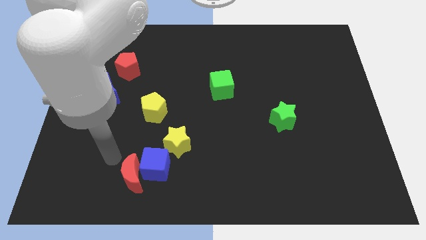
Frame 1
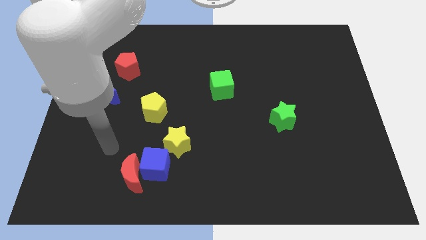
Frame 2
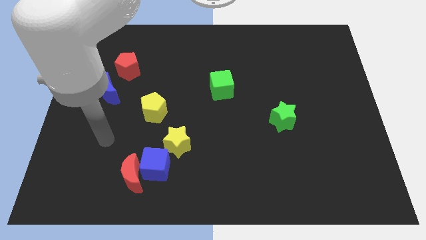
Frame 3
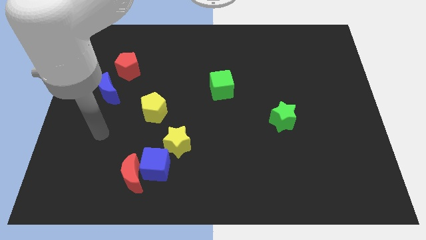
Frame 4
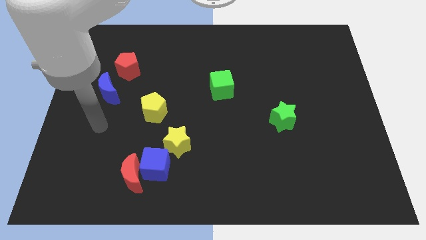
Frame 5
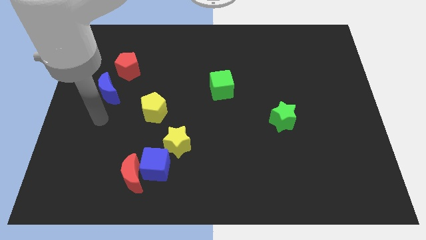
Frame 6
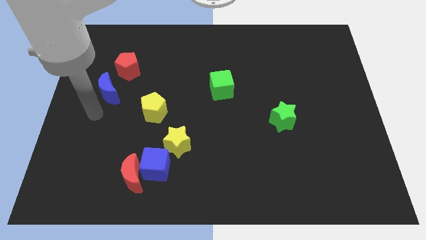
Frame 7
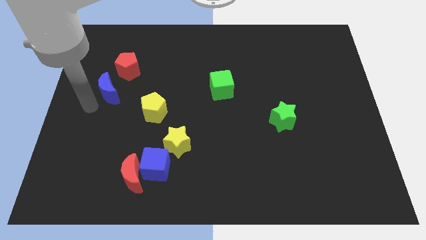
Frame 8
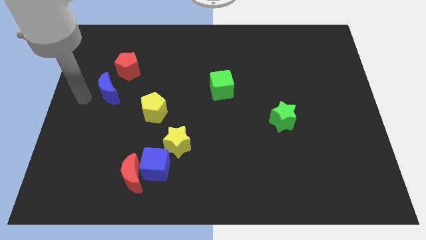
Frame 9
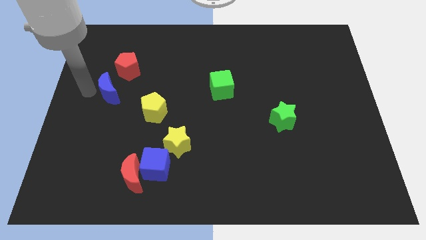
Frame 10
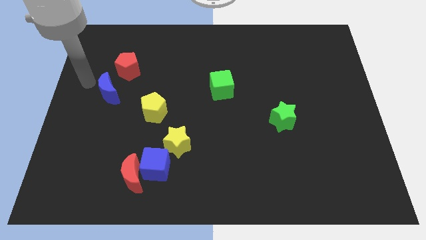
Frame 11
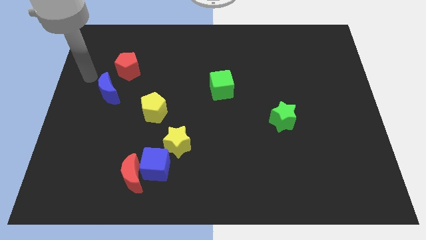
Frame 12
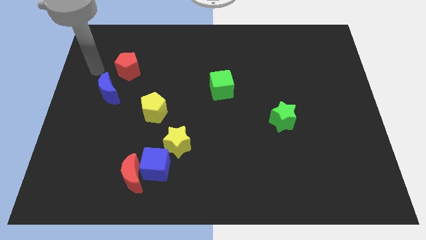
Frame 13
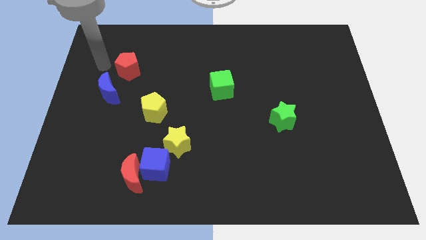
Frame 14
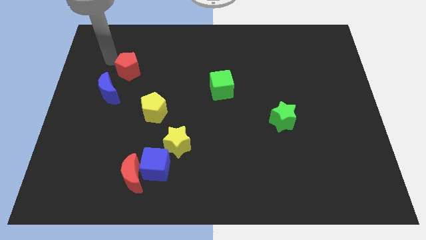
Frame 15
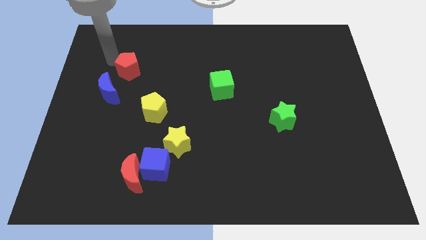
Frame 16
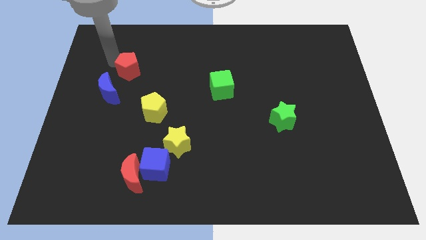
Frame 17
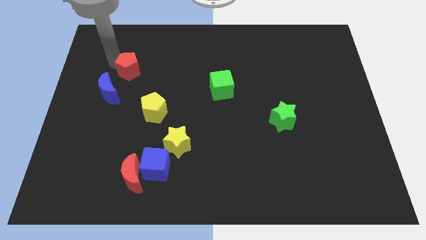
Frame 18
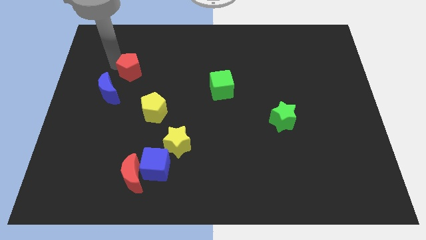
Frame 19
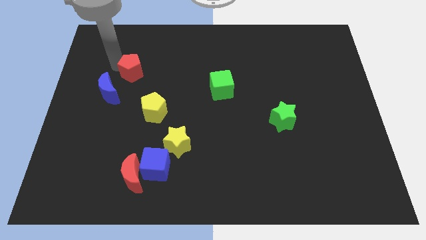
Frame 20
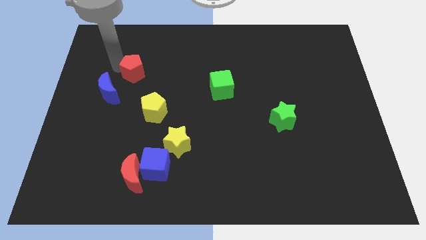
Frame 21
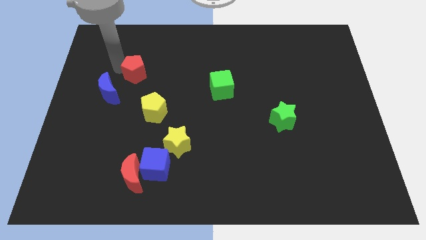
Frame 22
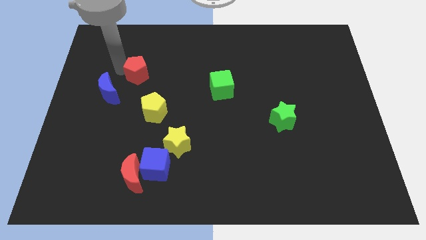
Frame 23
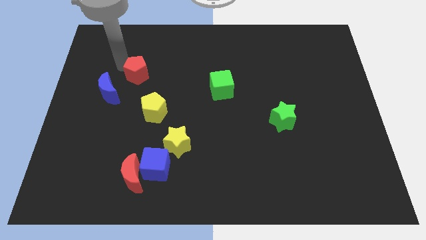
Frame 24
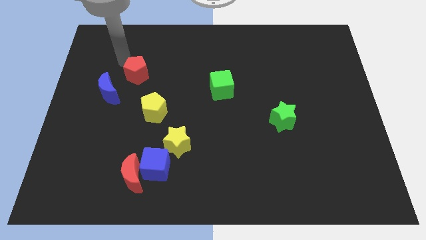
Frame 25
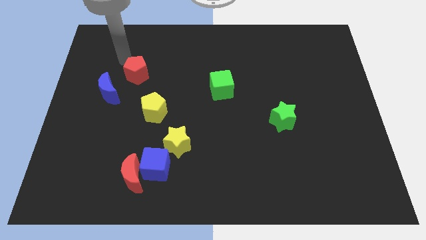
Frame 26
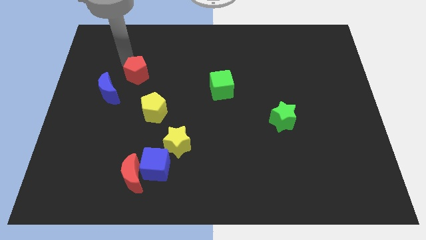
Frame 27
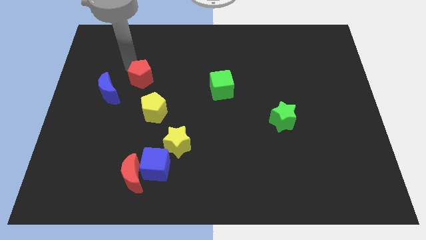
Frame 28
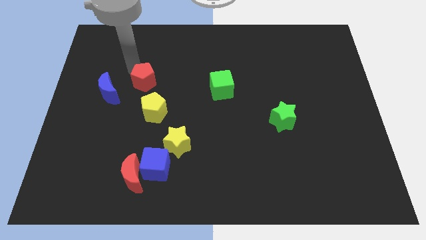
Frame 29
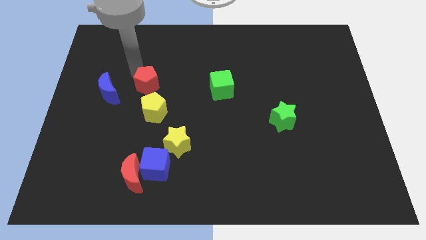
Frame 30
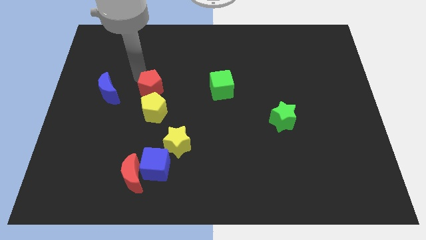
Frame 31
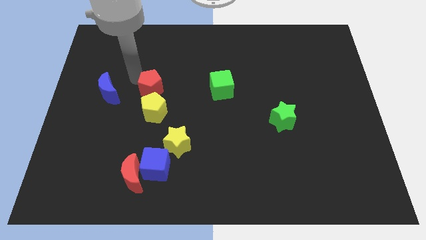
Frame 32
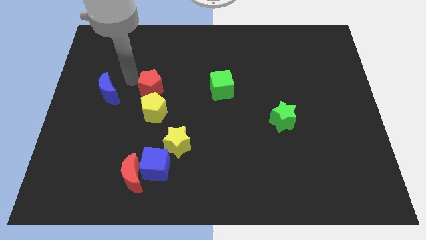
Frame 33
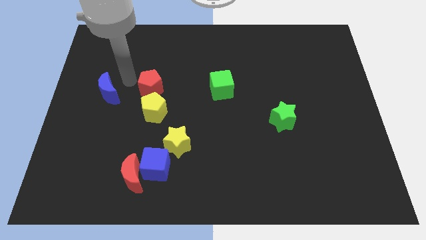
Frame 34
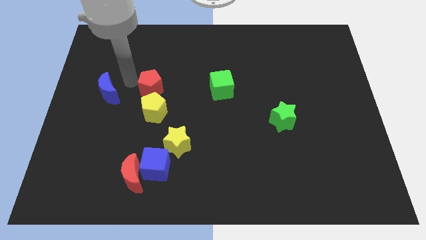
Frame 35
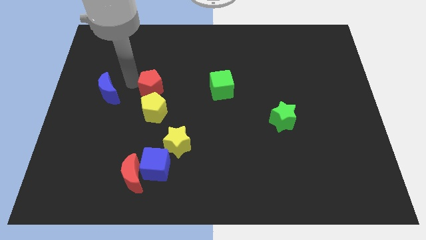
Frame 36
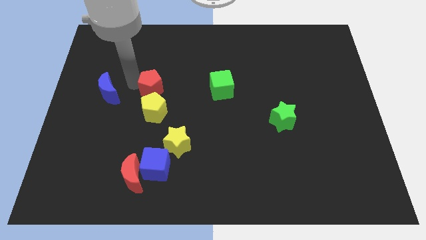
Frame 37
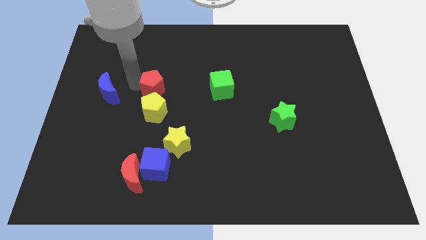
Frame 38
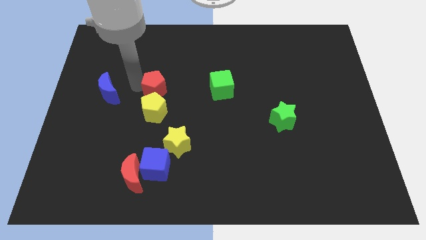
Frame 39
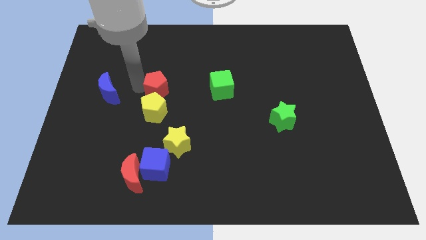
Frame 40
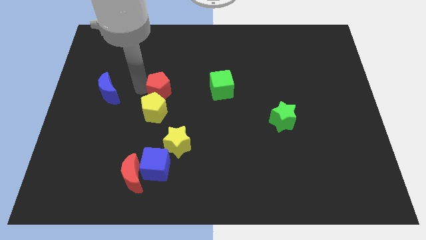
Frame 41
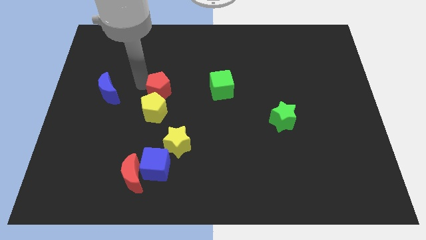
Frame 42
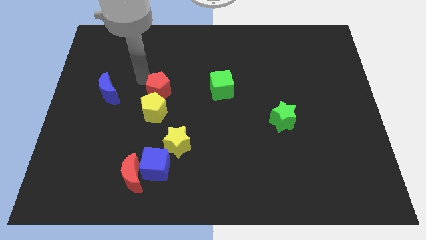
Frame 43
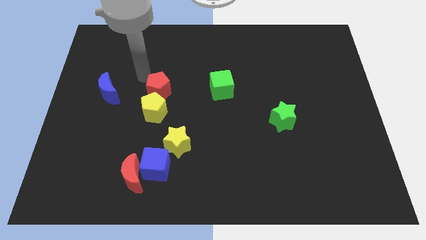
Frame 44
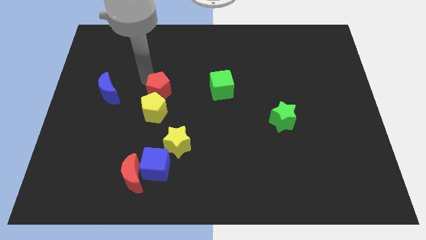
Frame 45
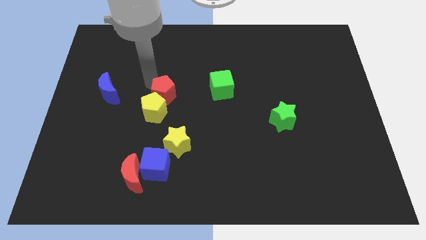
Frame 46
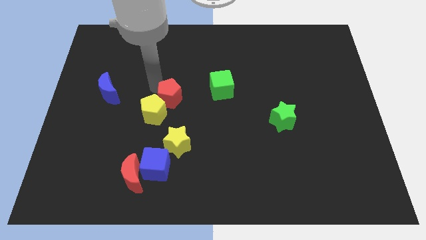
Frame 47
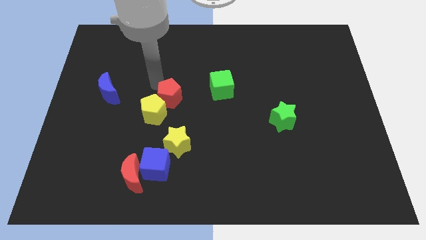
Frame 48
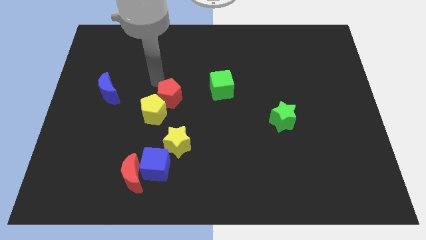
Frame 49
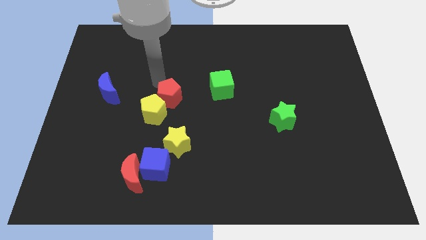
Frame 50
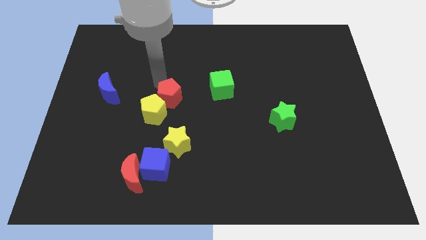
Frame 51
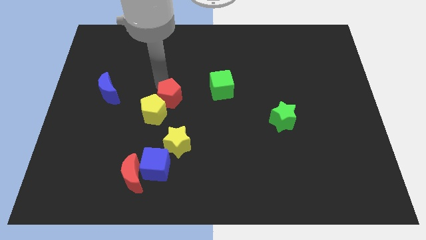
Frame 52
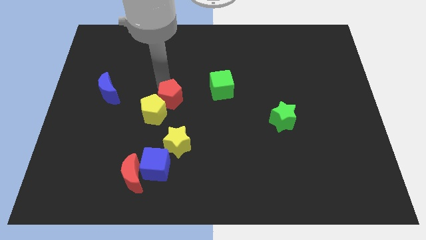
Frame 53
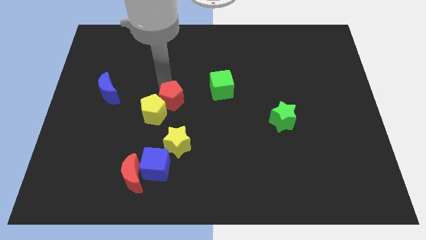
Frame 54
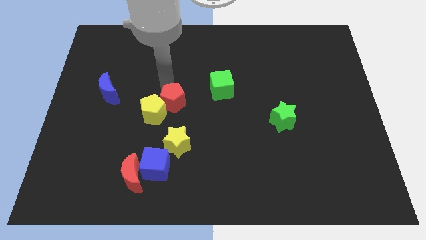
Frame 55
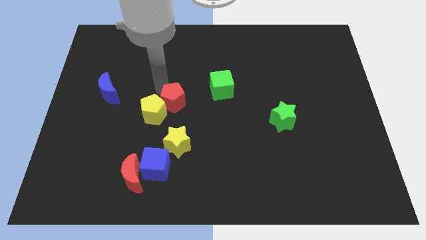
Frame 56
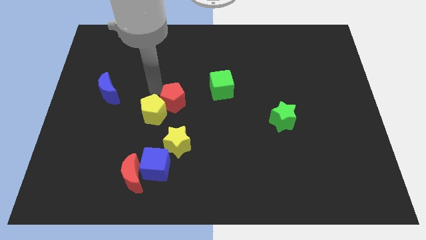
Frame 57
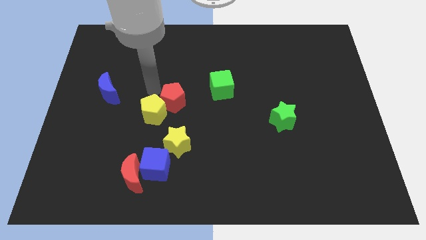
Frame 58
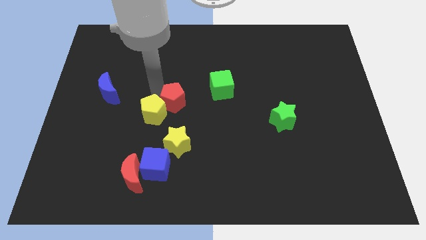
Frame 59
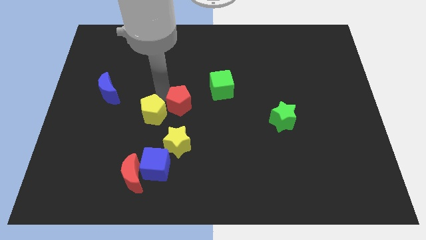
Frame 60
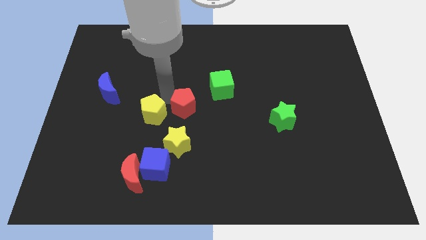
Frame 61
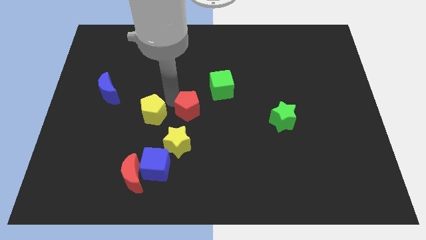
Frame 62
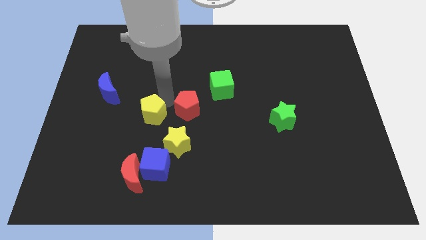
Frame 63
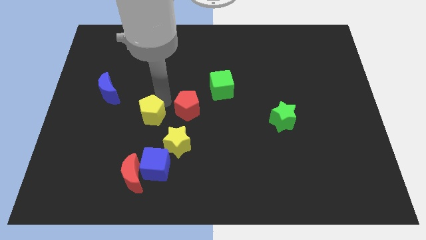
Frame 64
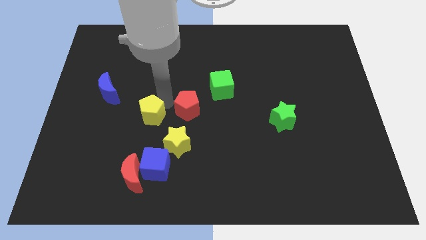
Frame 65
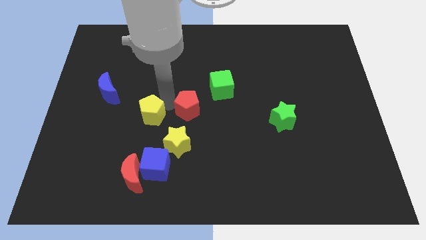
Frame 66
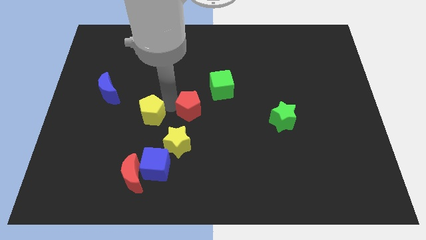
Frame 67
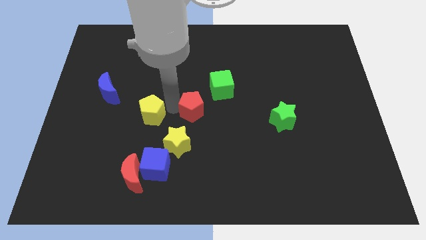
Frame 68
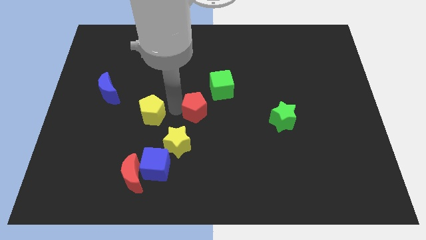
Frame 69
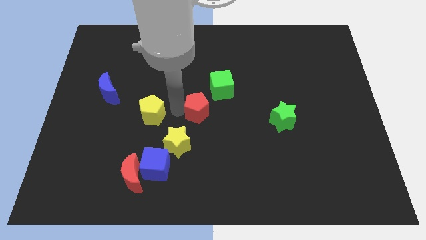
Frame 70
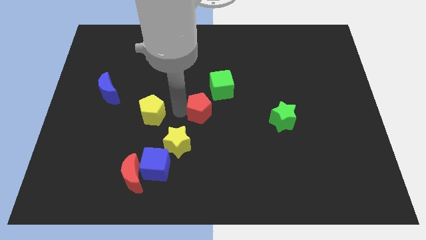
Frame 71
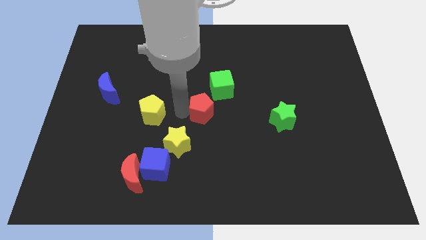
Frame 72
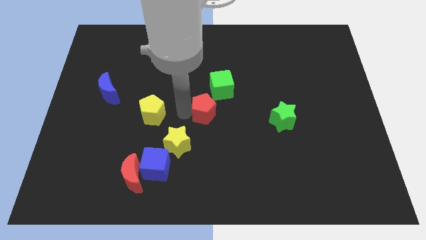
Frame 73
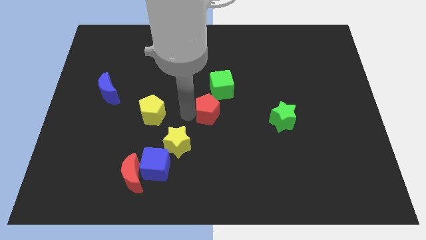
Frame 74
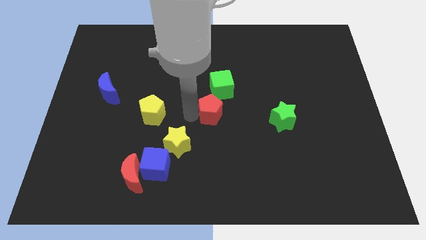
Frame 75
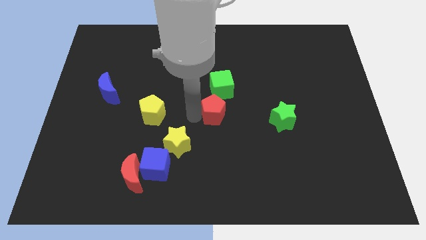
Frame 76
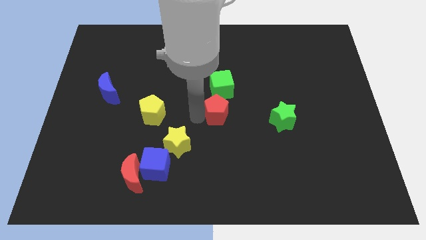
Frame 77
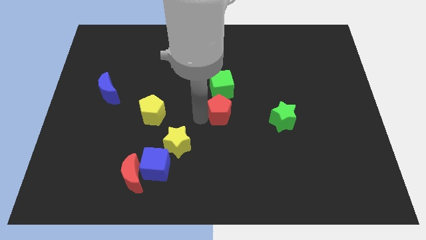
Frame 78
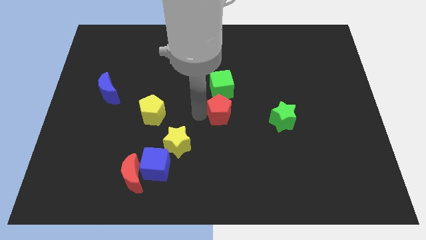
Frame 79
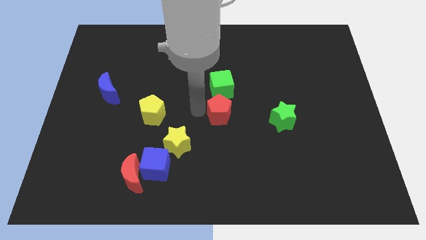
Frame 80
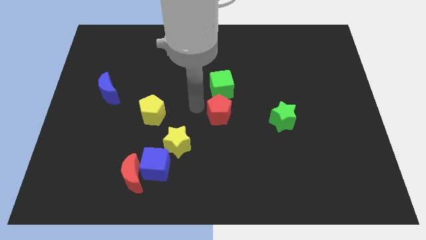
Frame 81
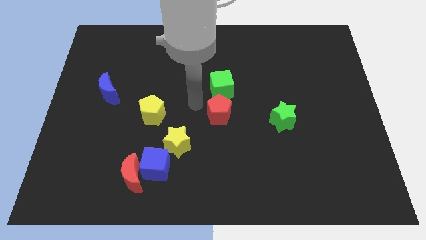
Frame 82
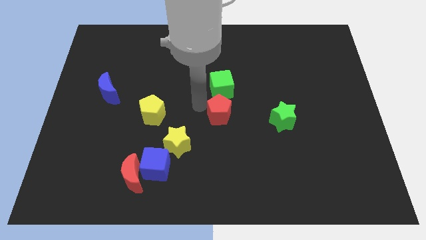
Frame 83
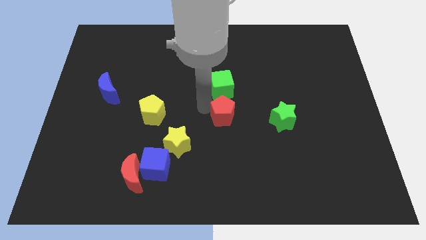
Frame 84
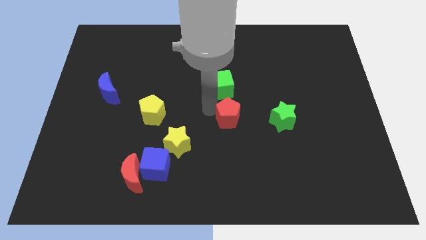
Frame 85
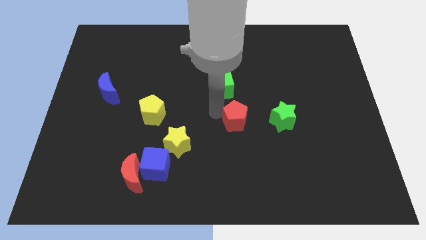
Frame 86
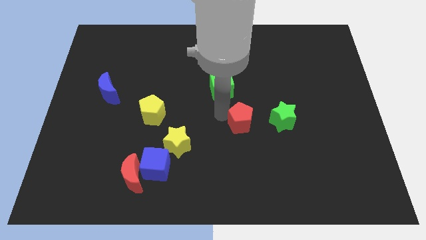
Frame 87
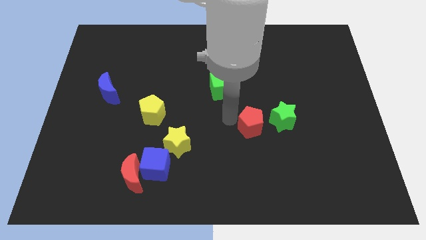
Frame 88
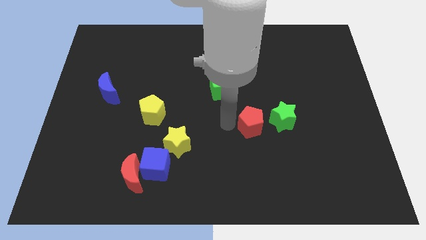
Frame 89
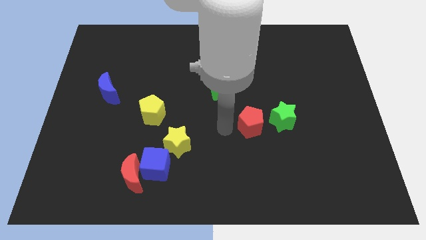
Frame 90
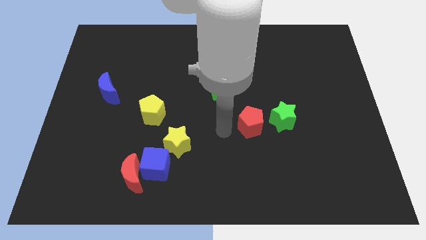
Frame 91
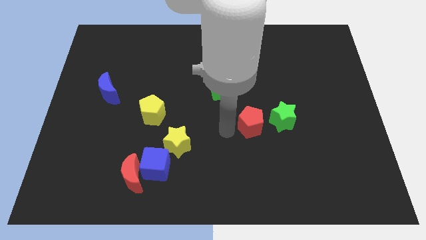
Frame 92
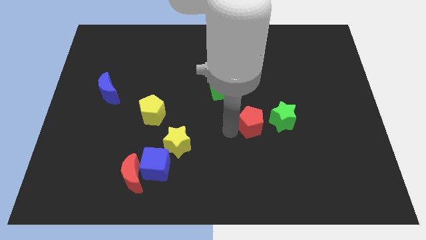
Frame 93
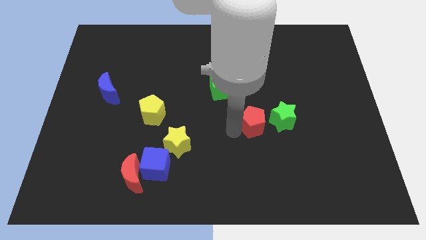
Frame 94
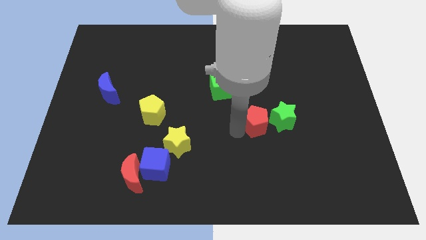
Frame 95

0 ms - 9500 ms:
move the red pentagon to the green star
